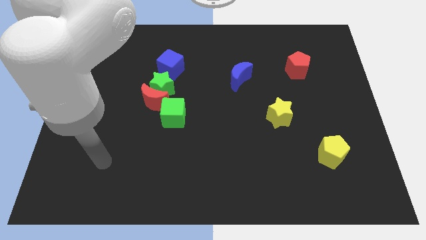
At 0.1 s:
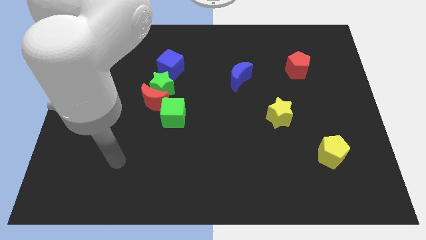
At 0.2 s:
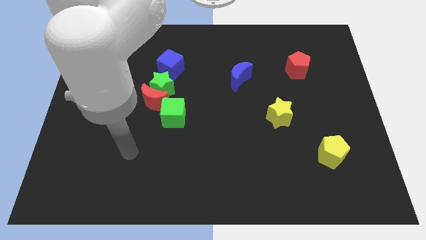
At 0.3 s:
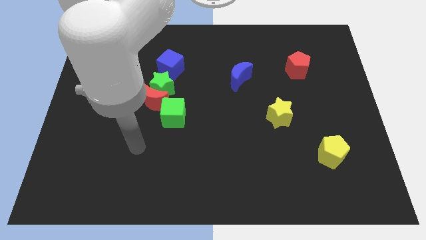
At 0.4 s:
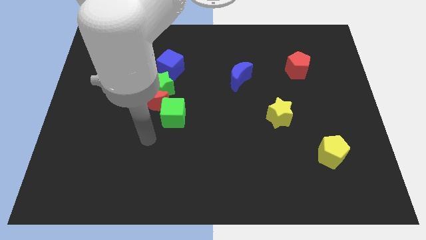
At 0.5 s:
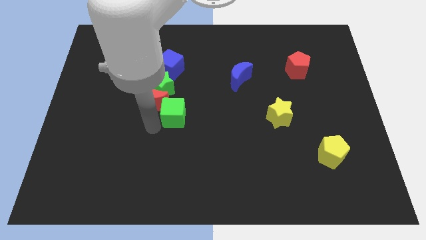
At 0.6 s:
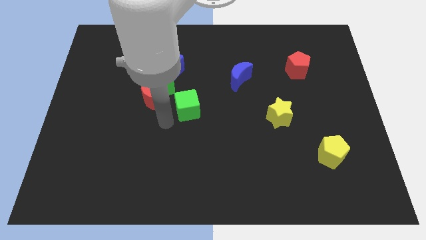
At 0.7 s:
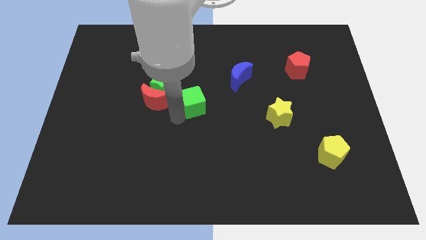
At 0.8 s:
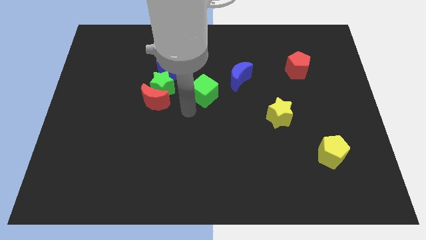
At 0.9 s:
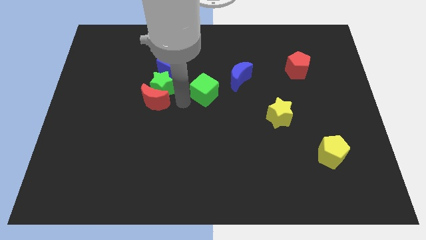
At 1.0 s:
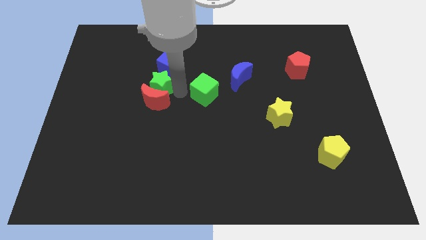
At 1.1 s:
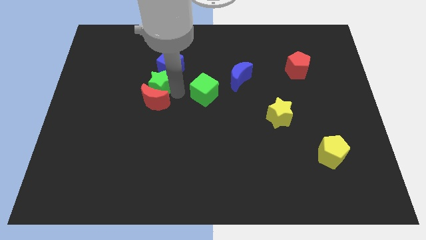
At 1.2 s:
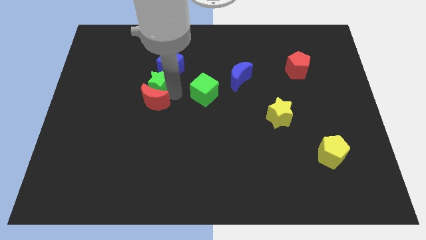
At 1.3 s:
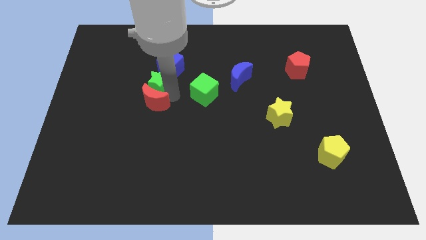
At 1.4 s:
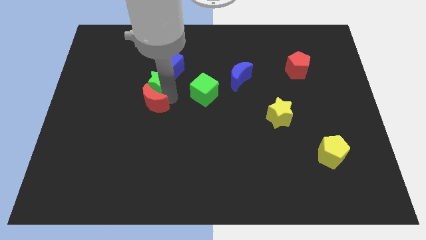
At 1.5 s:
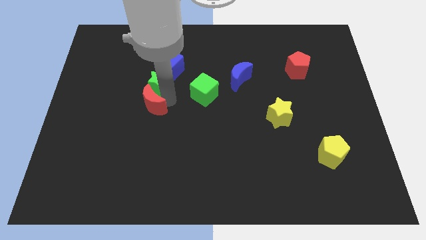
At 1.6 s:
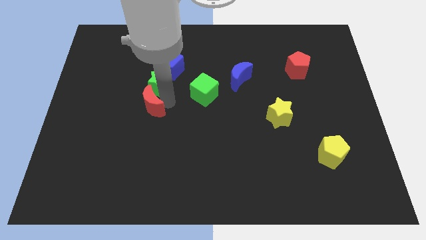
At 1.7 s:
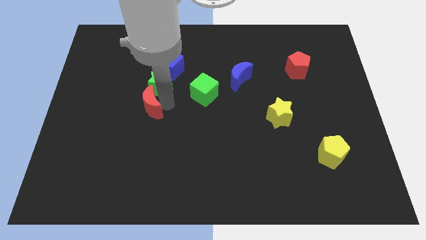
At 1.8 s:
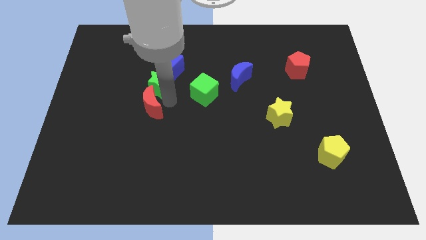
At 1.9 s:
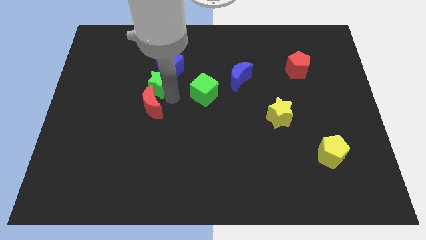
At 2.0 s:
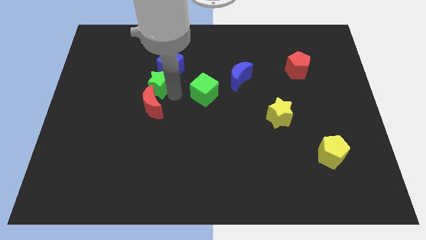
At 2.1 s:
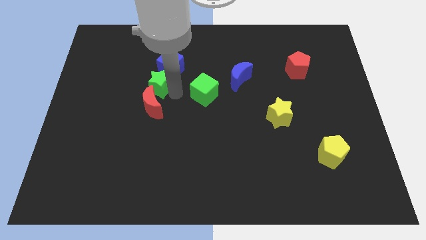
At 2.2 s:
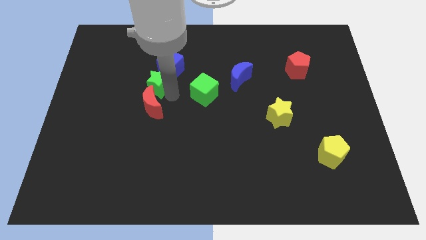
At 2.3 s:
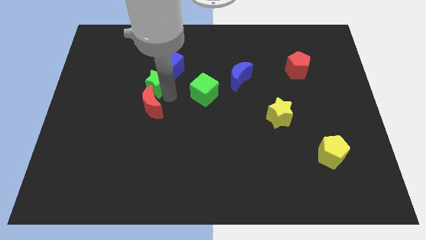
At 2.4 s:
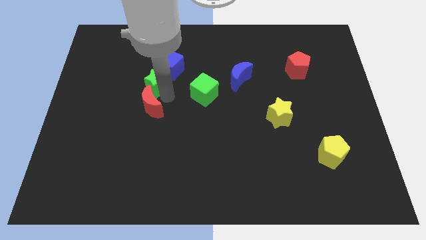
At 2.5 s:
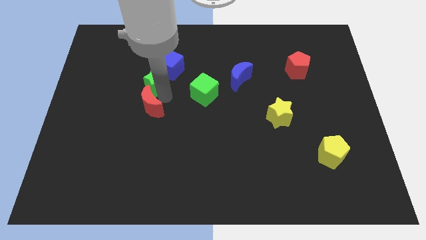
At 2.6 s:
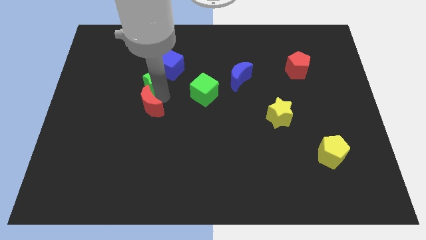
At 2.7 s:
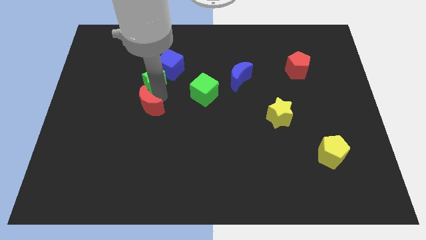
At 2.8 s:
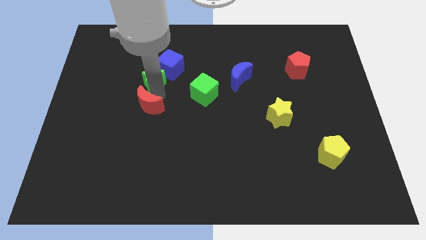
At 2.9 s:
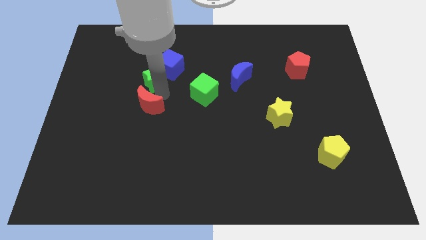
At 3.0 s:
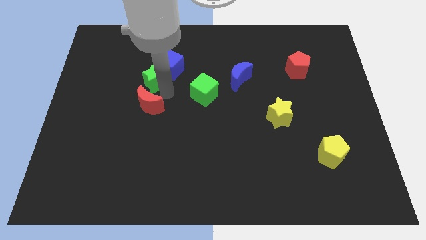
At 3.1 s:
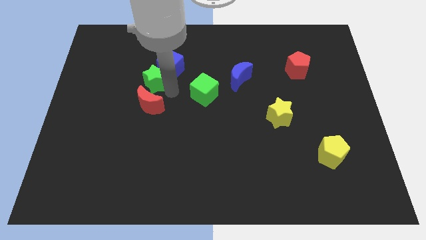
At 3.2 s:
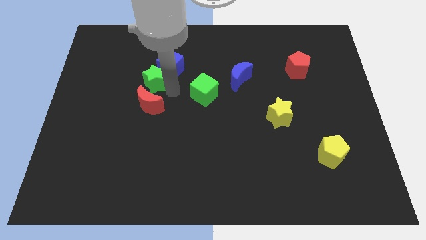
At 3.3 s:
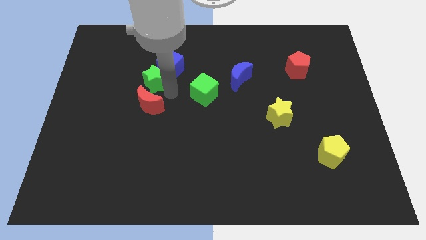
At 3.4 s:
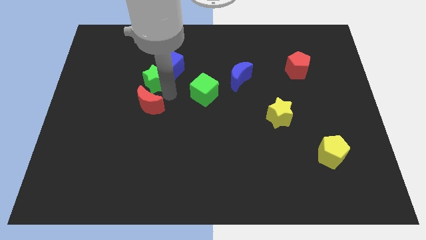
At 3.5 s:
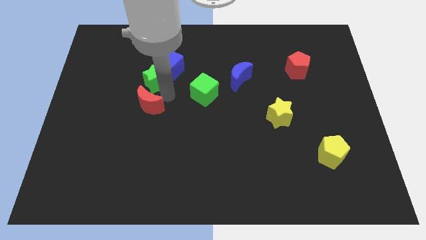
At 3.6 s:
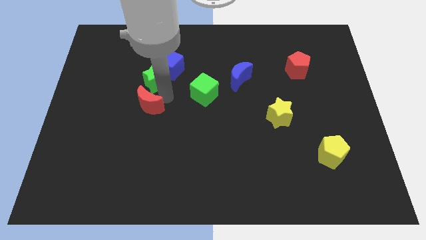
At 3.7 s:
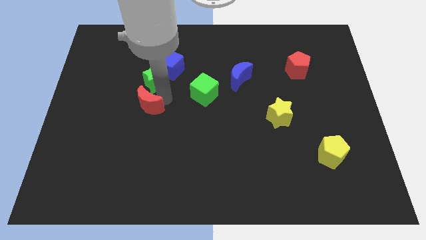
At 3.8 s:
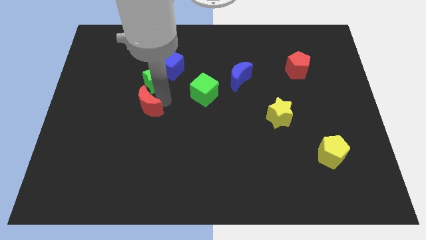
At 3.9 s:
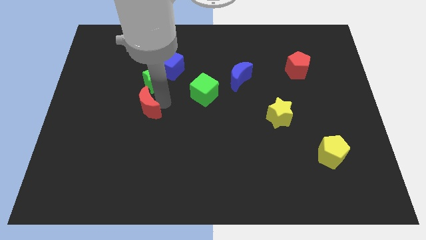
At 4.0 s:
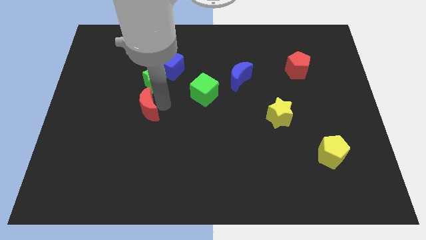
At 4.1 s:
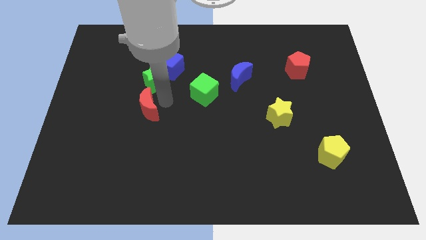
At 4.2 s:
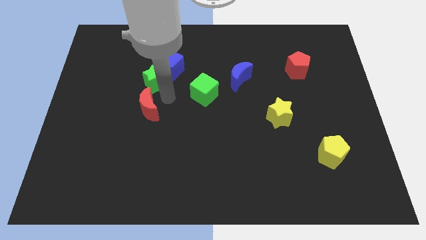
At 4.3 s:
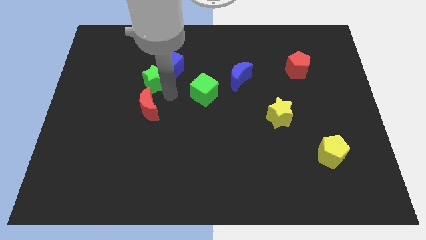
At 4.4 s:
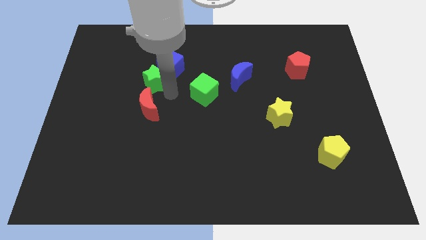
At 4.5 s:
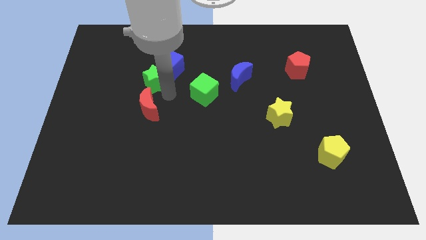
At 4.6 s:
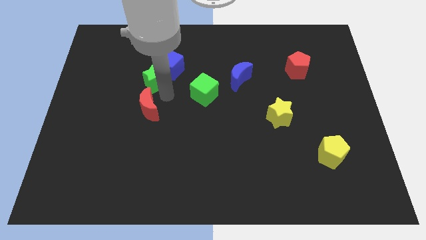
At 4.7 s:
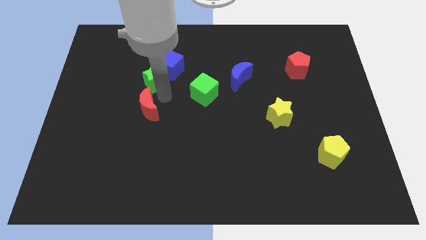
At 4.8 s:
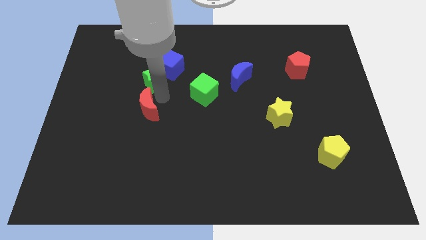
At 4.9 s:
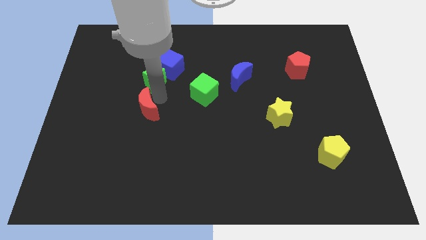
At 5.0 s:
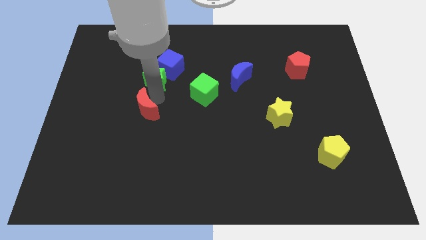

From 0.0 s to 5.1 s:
separate the red moon from the green star and green cube

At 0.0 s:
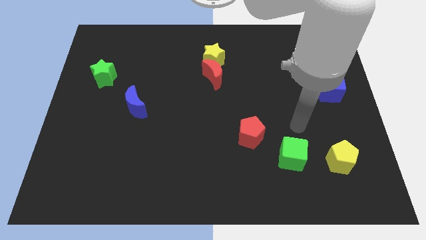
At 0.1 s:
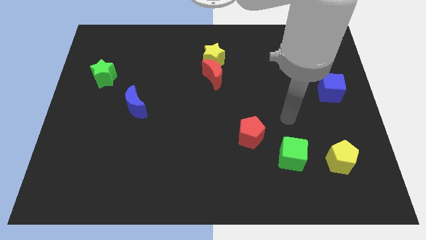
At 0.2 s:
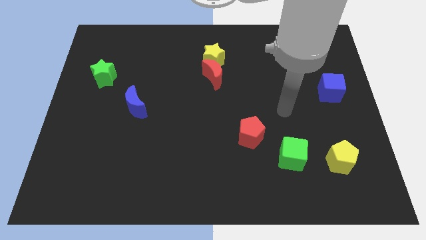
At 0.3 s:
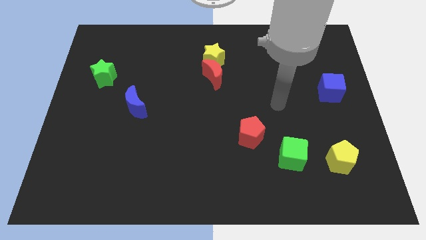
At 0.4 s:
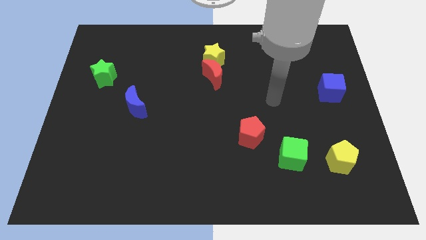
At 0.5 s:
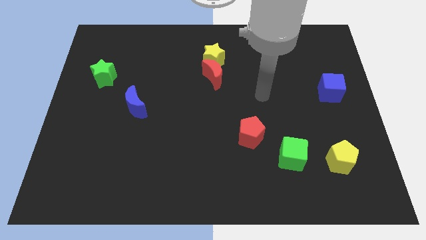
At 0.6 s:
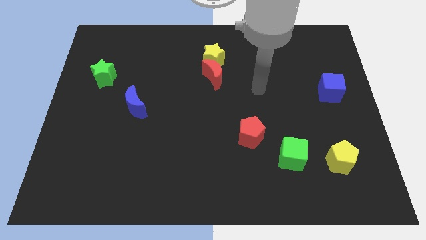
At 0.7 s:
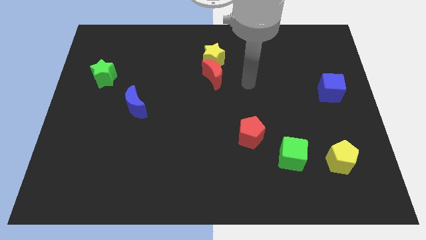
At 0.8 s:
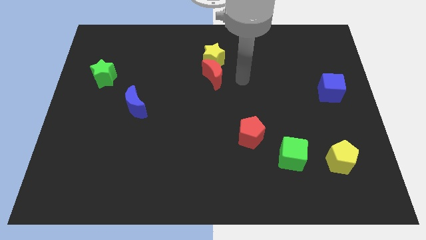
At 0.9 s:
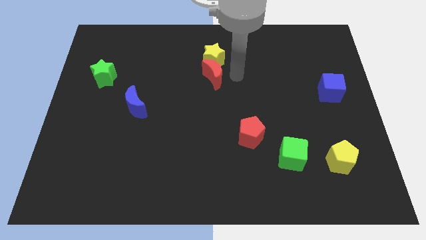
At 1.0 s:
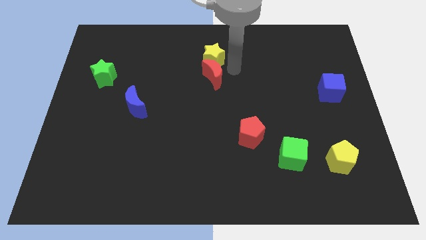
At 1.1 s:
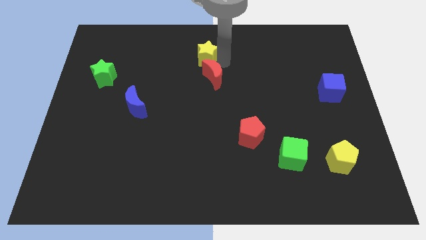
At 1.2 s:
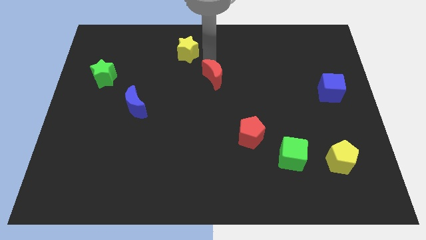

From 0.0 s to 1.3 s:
pull the red moon apart from the yellow star

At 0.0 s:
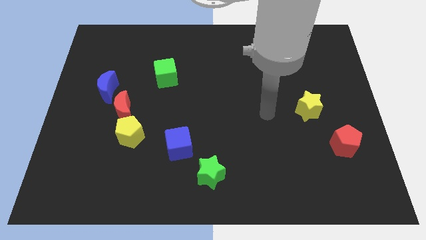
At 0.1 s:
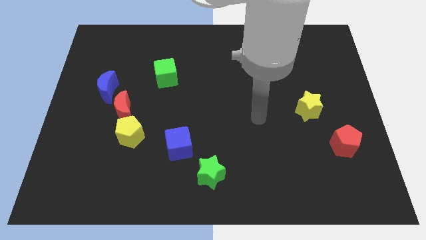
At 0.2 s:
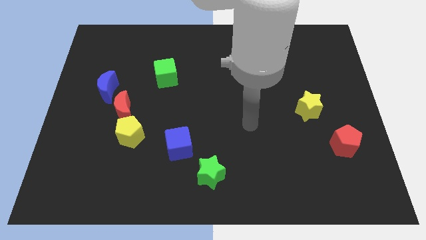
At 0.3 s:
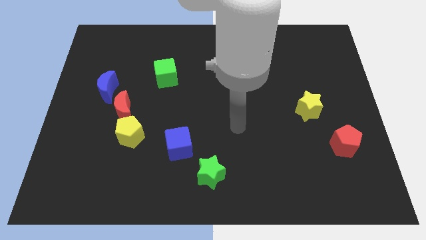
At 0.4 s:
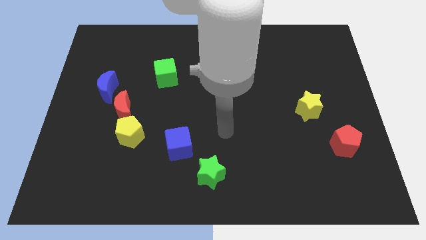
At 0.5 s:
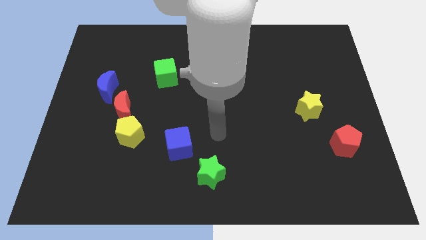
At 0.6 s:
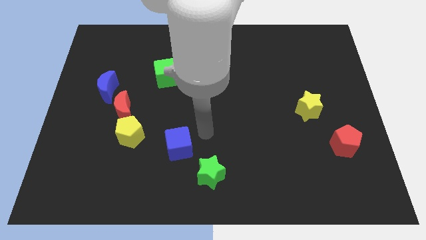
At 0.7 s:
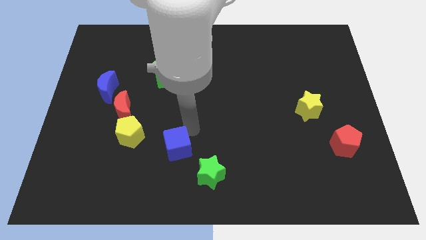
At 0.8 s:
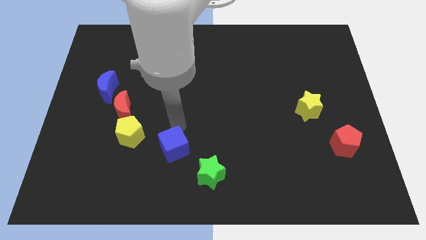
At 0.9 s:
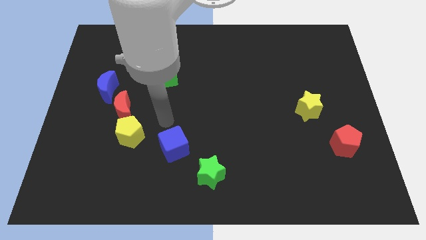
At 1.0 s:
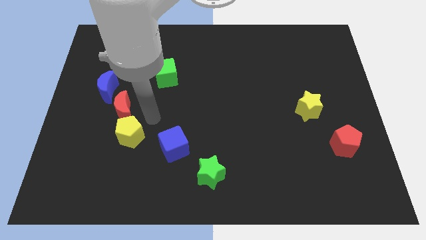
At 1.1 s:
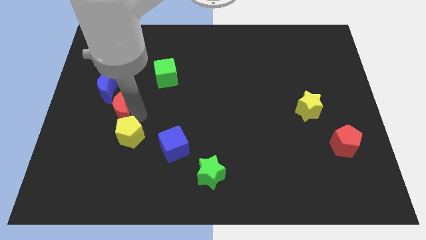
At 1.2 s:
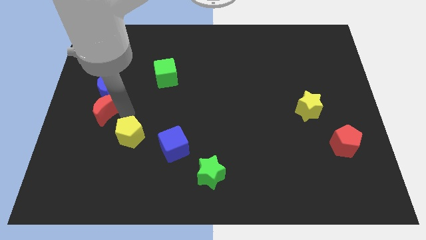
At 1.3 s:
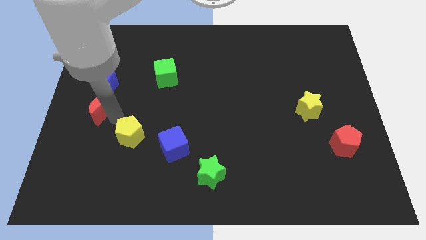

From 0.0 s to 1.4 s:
move the yellow pentagon away from the red moon

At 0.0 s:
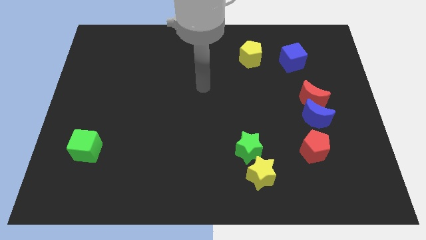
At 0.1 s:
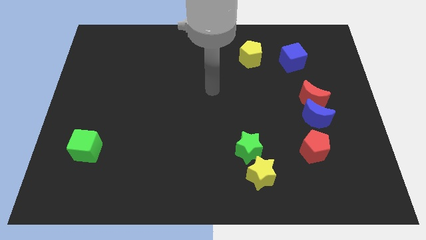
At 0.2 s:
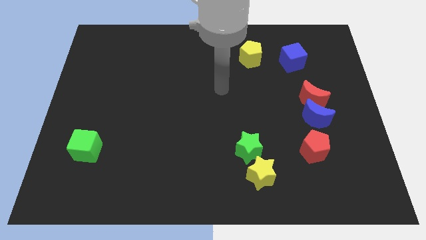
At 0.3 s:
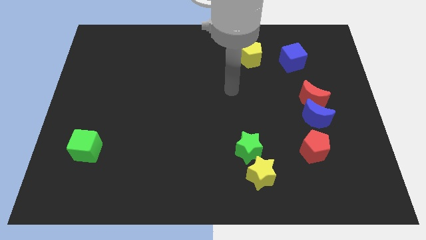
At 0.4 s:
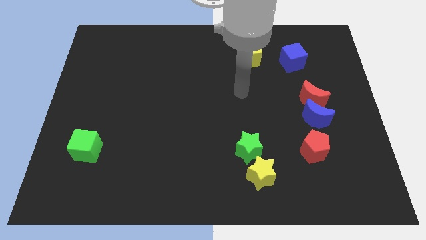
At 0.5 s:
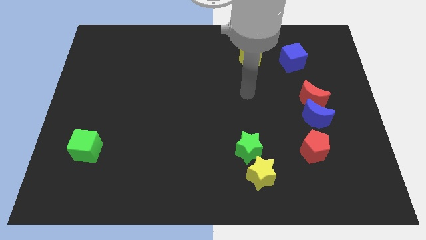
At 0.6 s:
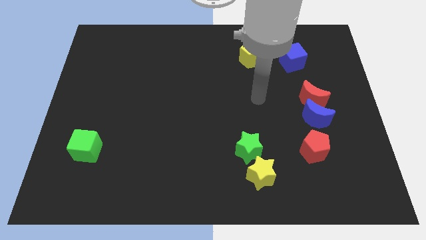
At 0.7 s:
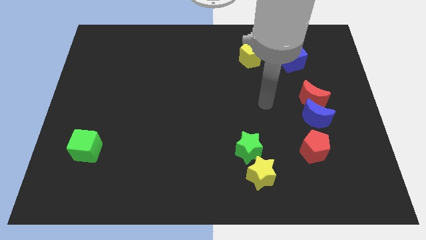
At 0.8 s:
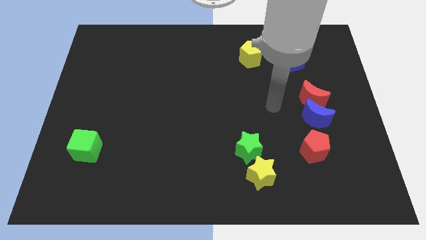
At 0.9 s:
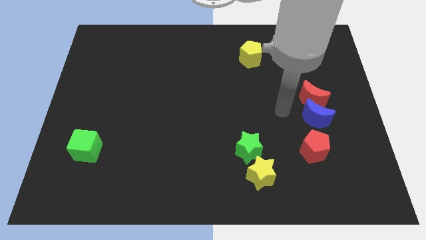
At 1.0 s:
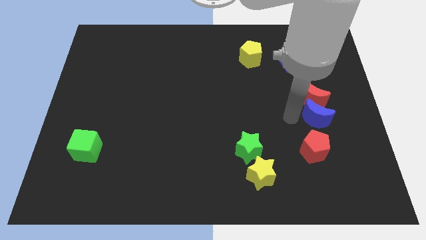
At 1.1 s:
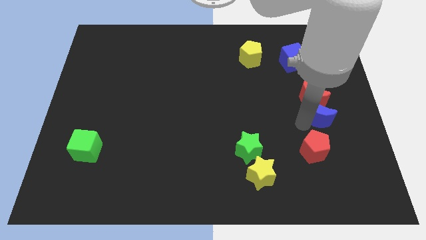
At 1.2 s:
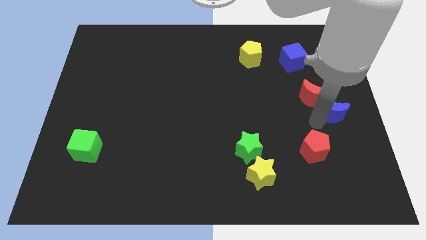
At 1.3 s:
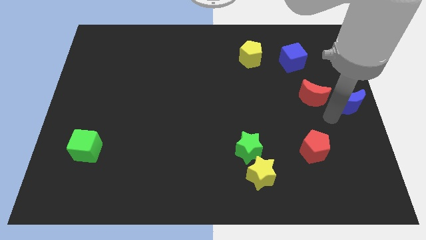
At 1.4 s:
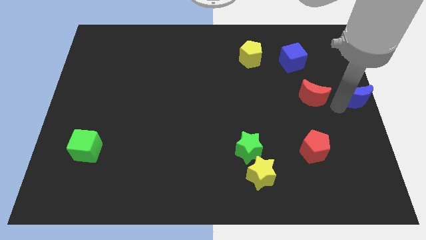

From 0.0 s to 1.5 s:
move the red moon away from the blue moon
